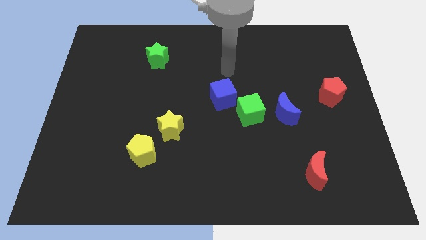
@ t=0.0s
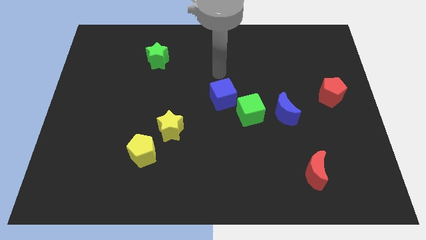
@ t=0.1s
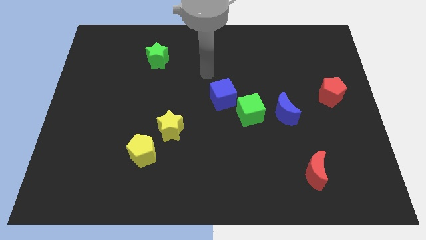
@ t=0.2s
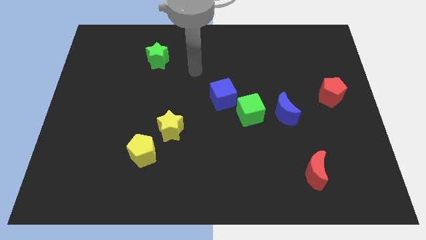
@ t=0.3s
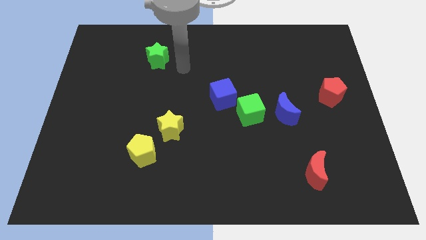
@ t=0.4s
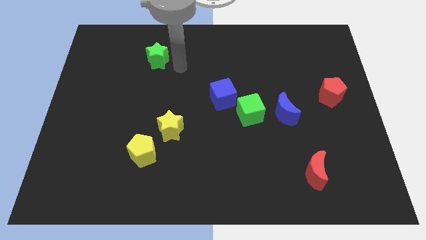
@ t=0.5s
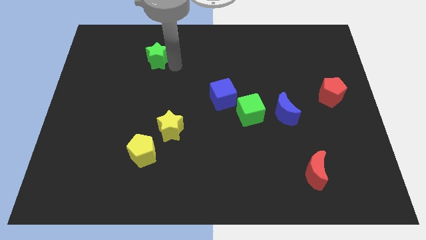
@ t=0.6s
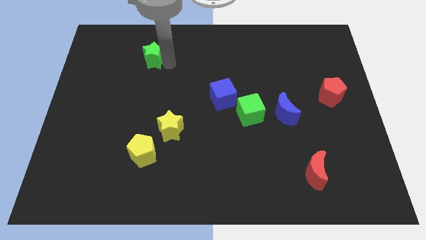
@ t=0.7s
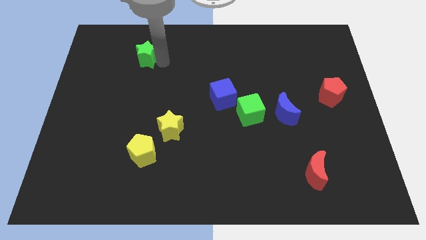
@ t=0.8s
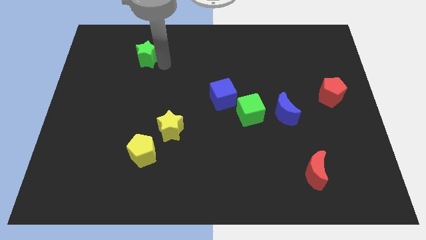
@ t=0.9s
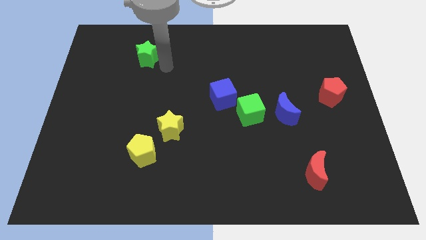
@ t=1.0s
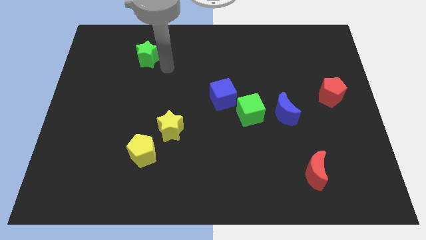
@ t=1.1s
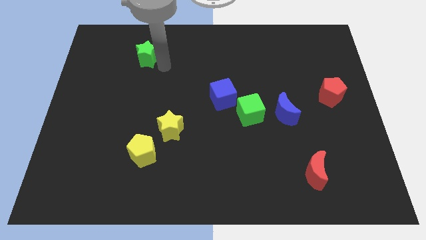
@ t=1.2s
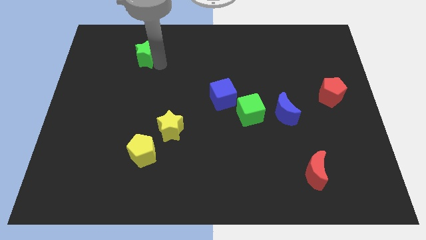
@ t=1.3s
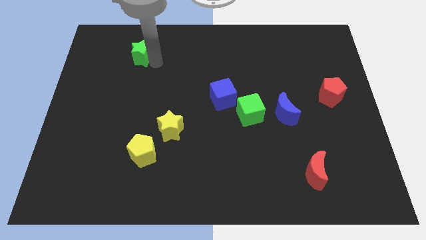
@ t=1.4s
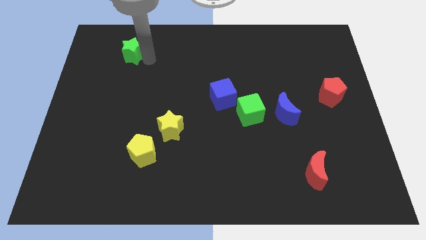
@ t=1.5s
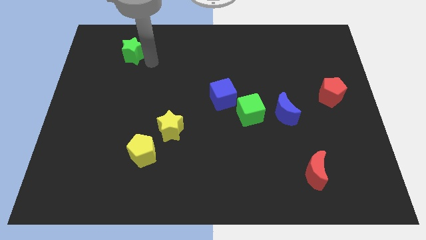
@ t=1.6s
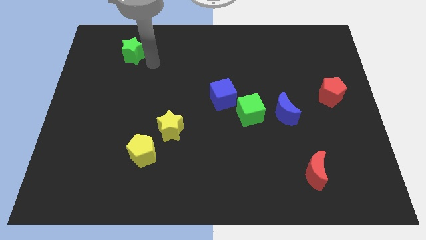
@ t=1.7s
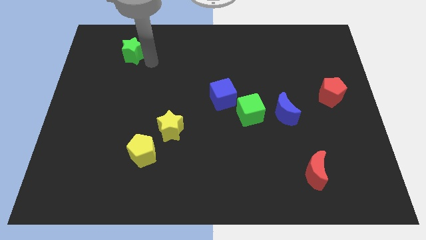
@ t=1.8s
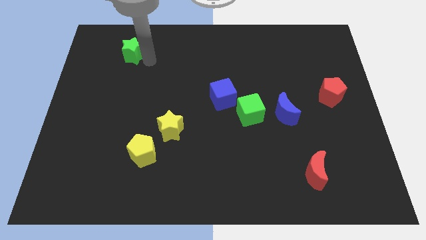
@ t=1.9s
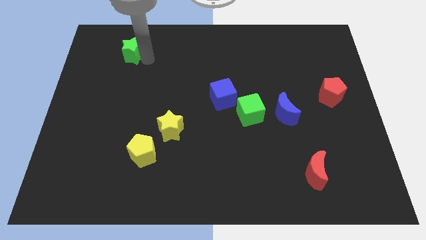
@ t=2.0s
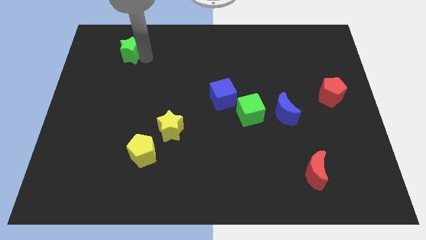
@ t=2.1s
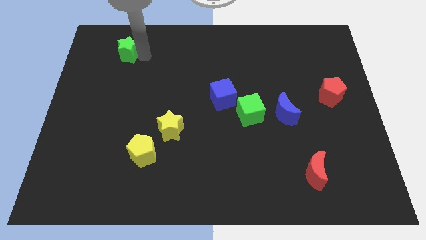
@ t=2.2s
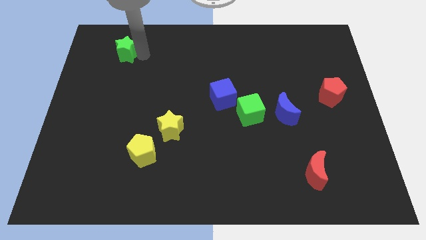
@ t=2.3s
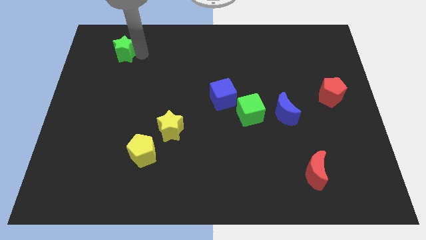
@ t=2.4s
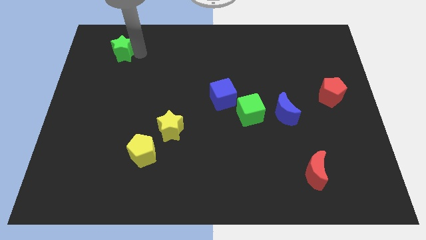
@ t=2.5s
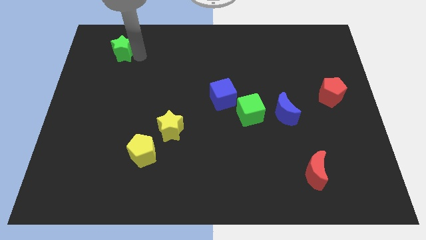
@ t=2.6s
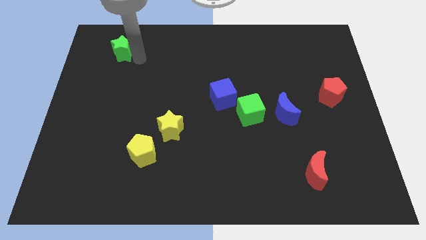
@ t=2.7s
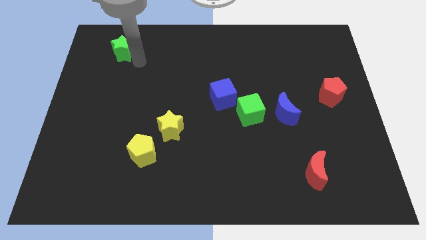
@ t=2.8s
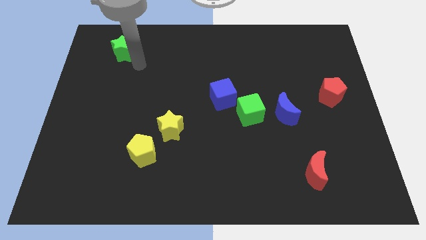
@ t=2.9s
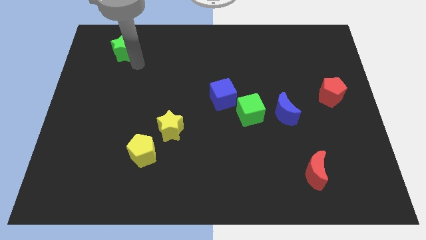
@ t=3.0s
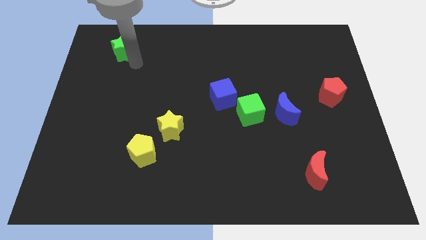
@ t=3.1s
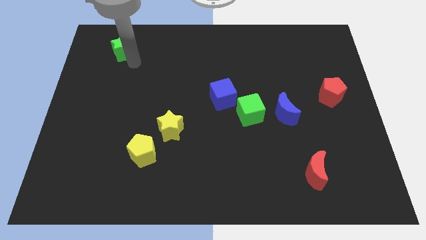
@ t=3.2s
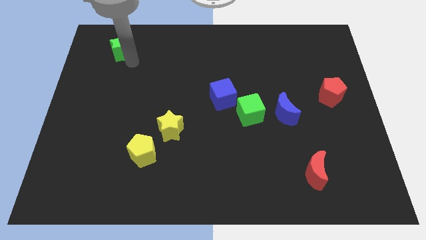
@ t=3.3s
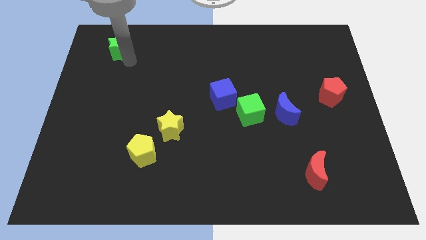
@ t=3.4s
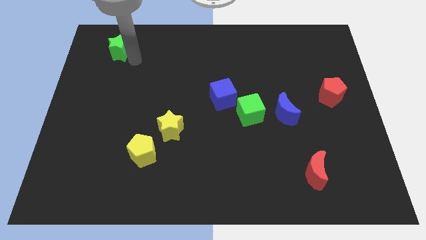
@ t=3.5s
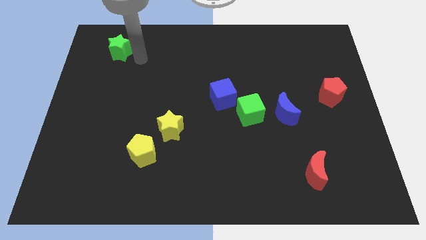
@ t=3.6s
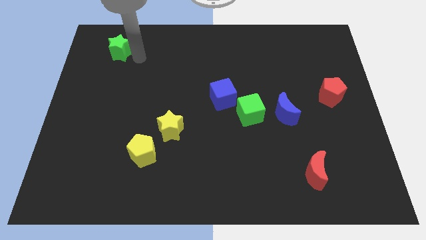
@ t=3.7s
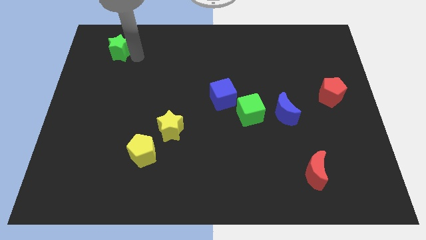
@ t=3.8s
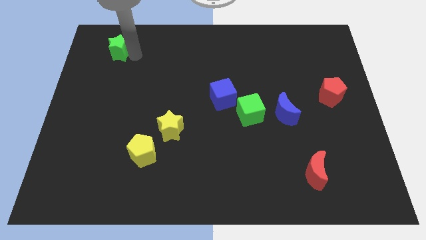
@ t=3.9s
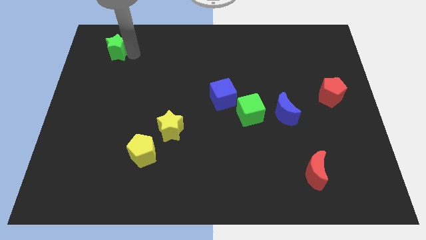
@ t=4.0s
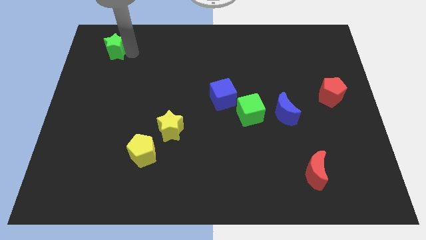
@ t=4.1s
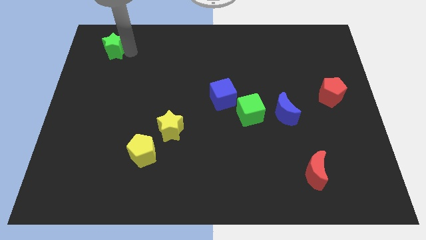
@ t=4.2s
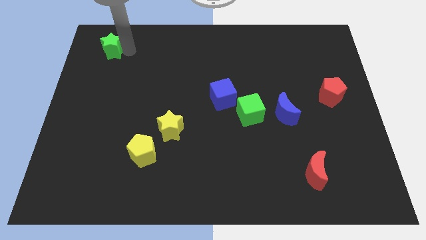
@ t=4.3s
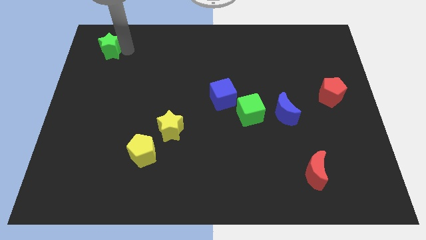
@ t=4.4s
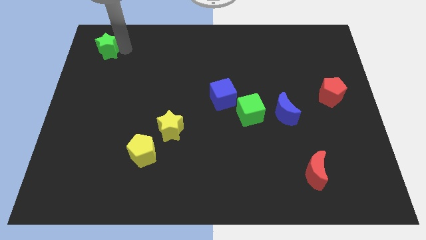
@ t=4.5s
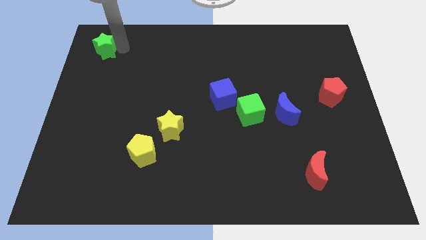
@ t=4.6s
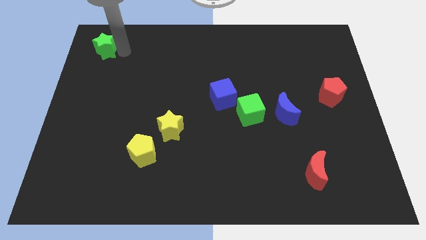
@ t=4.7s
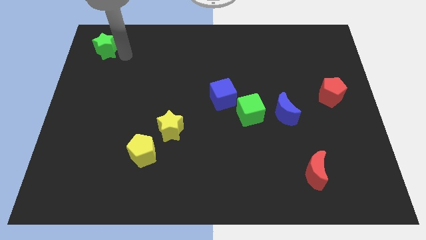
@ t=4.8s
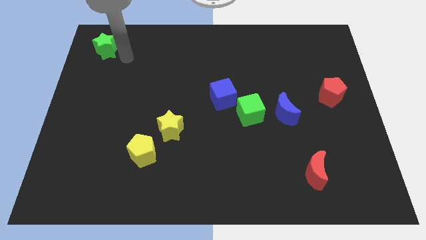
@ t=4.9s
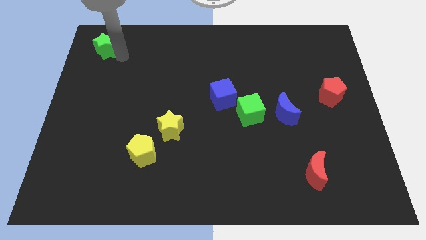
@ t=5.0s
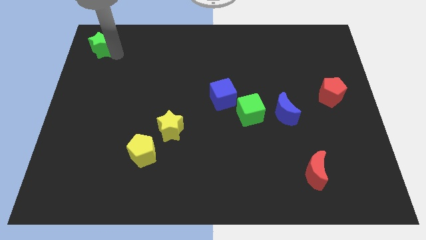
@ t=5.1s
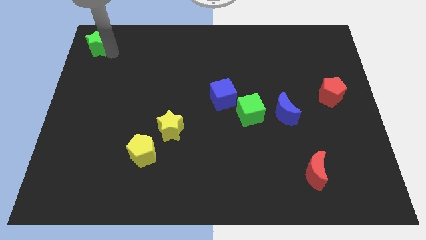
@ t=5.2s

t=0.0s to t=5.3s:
slide the green star to the top left
